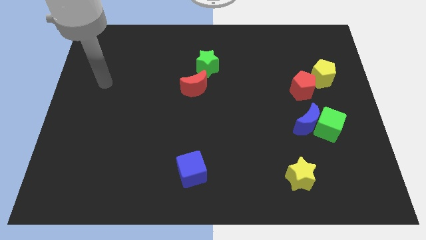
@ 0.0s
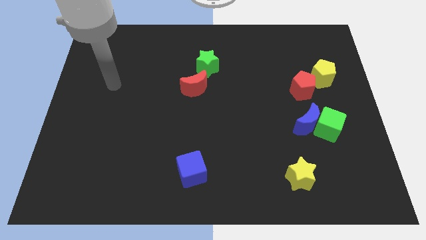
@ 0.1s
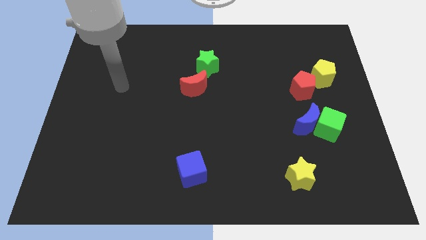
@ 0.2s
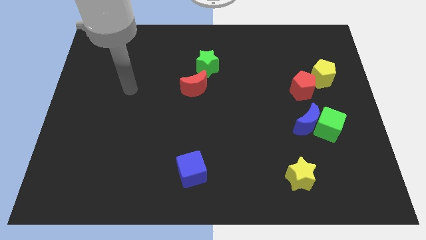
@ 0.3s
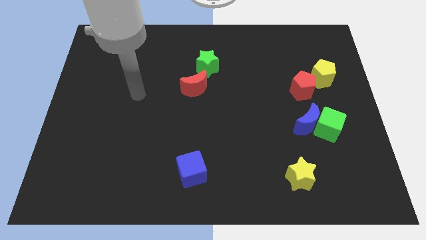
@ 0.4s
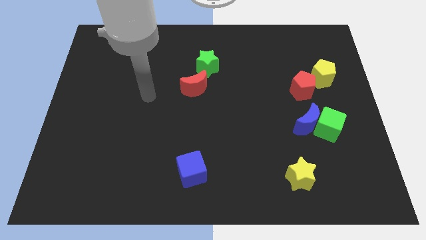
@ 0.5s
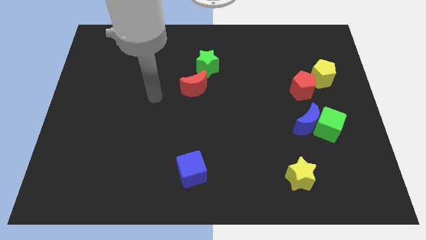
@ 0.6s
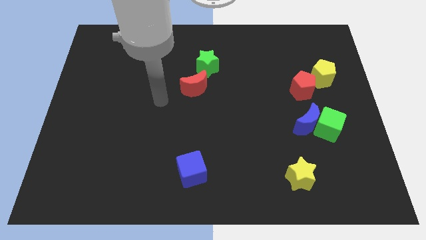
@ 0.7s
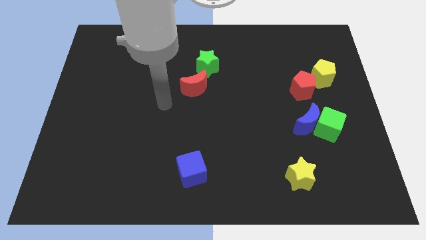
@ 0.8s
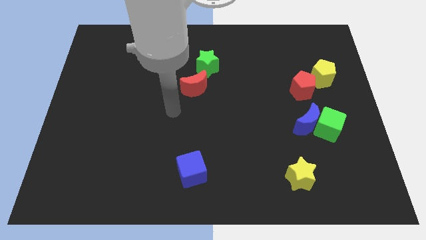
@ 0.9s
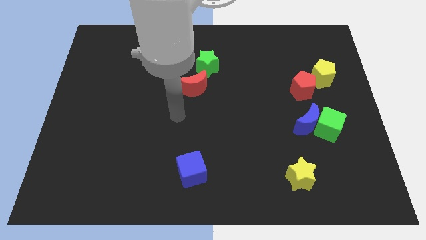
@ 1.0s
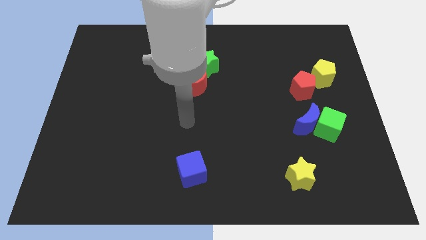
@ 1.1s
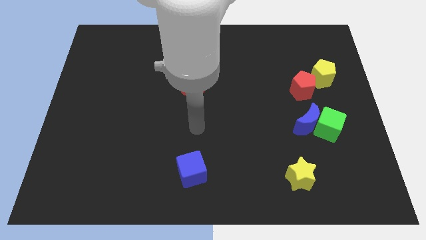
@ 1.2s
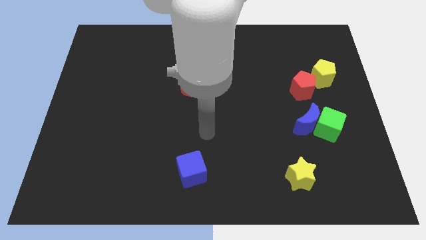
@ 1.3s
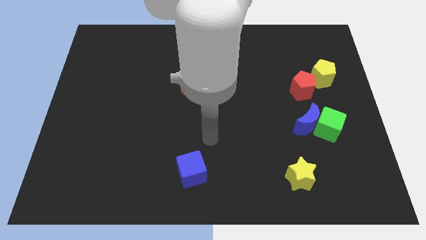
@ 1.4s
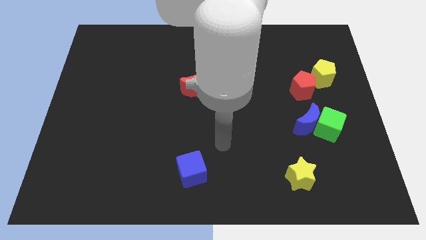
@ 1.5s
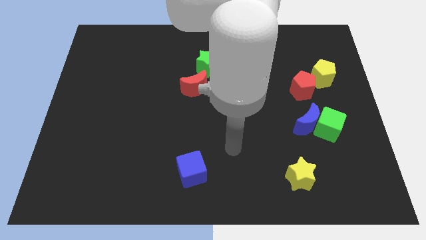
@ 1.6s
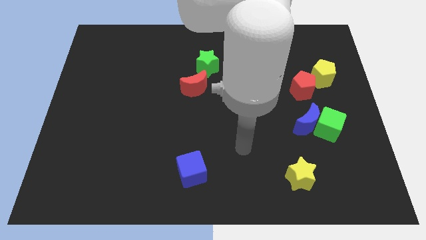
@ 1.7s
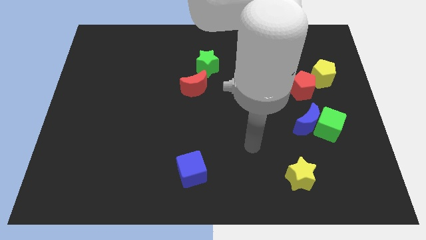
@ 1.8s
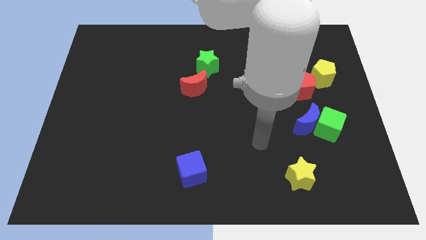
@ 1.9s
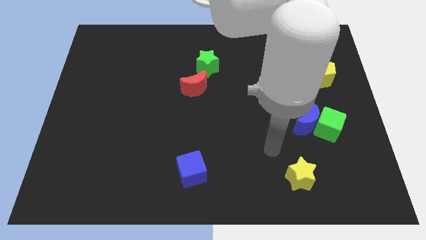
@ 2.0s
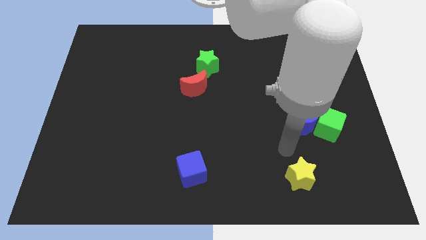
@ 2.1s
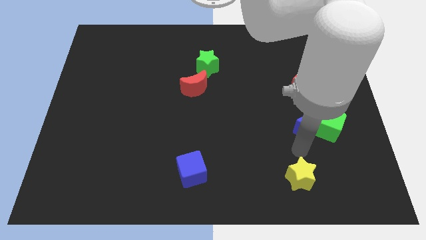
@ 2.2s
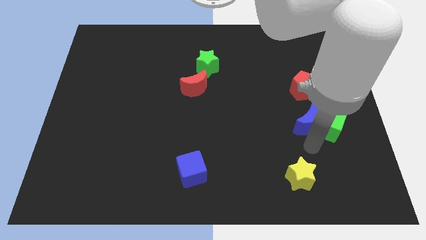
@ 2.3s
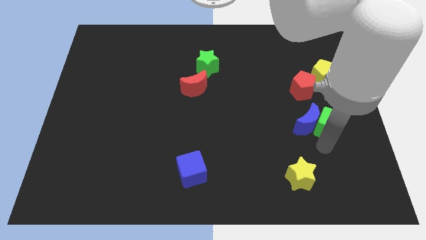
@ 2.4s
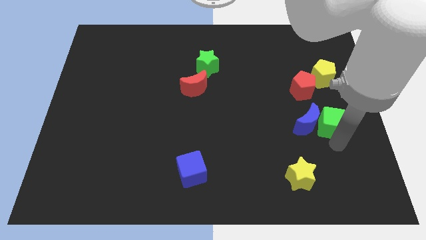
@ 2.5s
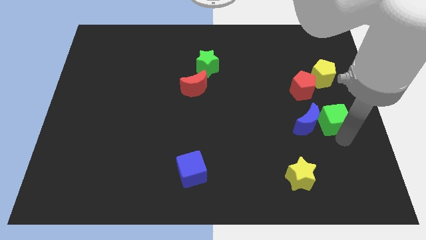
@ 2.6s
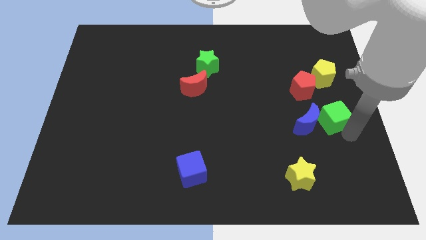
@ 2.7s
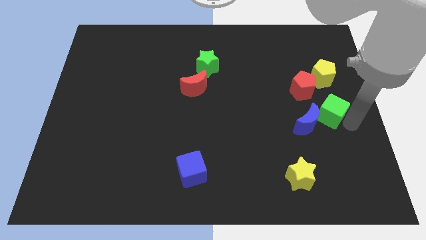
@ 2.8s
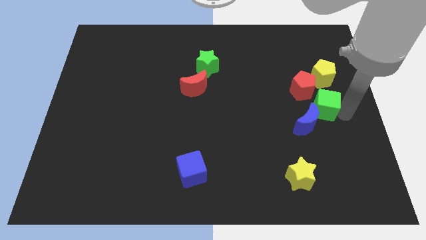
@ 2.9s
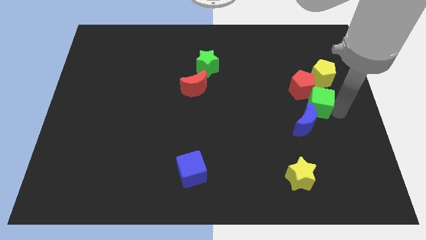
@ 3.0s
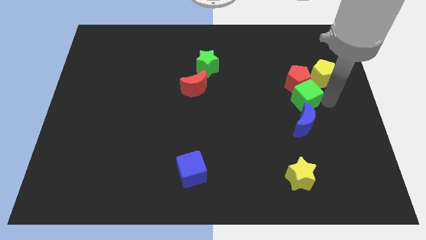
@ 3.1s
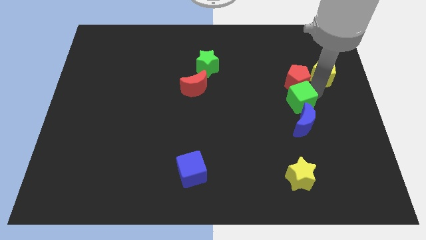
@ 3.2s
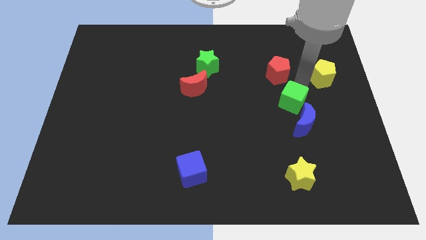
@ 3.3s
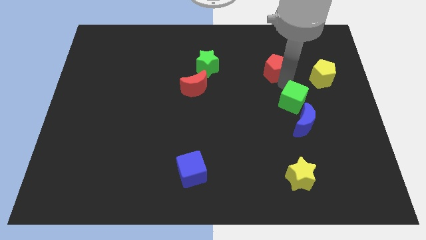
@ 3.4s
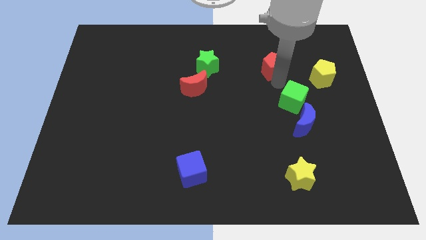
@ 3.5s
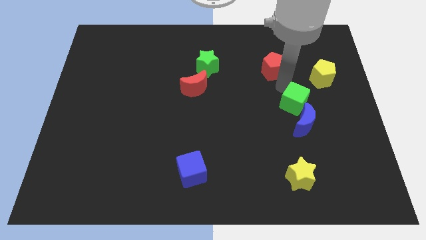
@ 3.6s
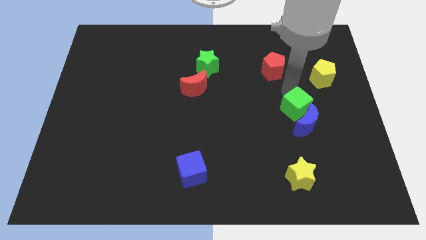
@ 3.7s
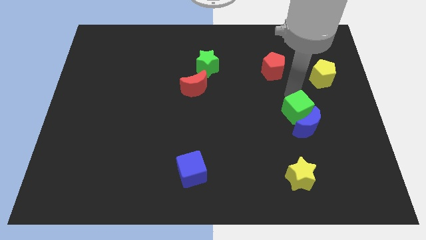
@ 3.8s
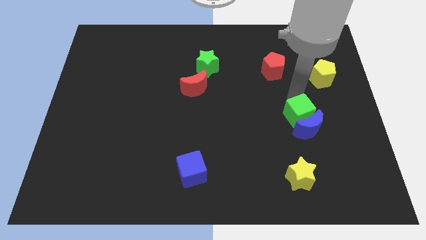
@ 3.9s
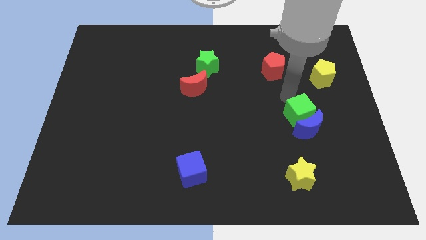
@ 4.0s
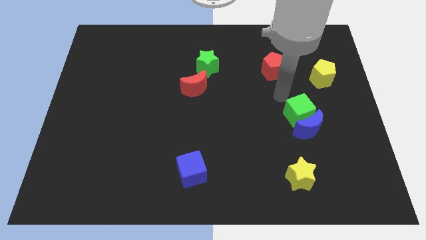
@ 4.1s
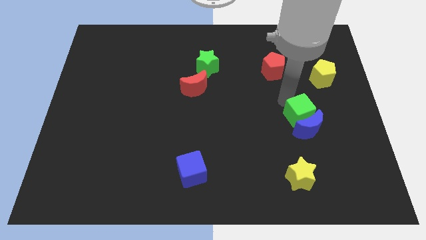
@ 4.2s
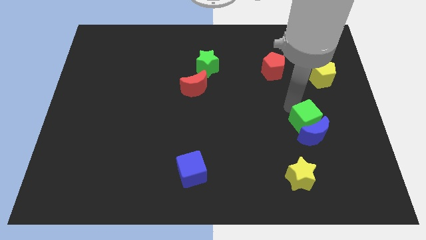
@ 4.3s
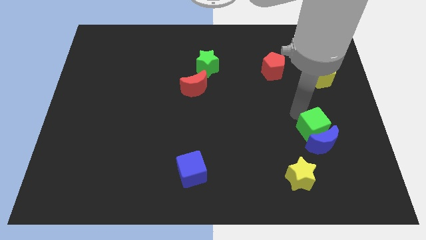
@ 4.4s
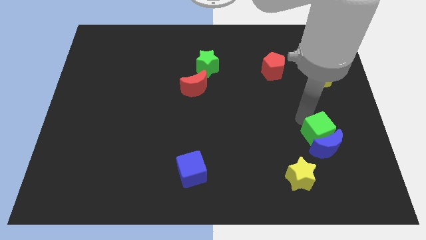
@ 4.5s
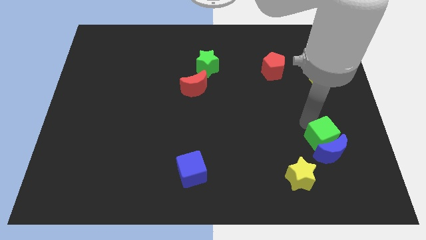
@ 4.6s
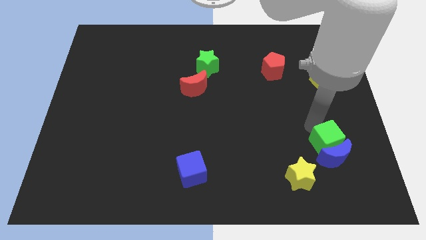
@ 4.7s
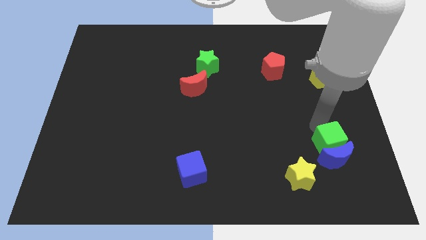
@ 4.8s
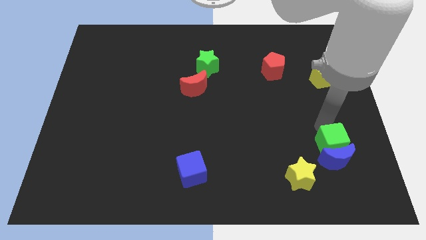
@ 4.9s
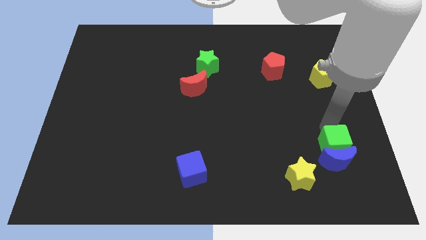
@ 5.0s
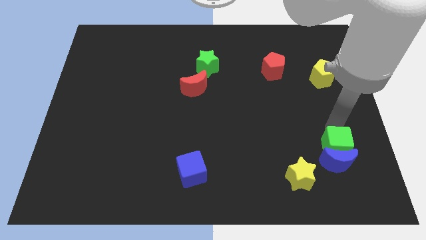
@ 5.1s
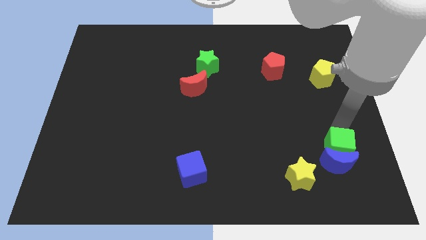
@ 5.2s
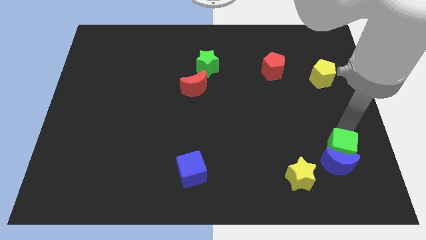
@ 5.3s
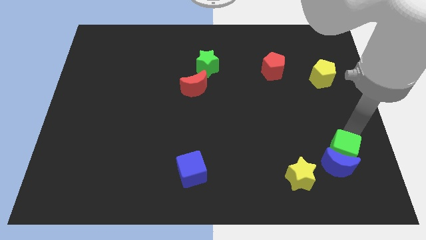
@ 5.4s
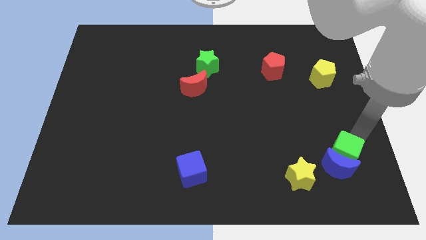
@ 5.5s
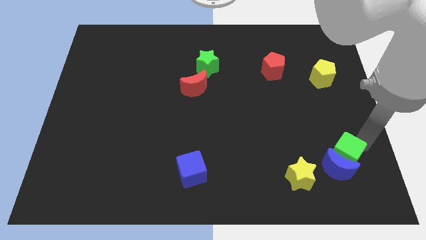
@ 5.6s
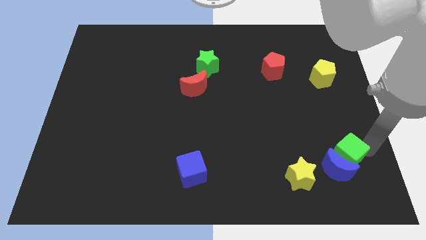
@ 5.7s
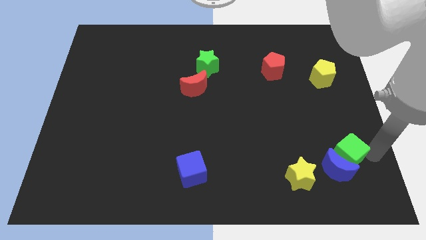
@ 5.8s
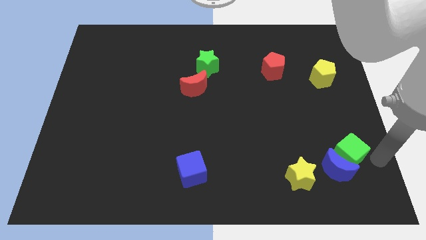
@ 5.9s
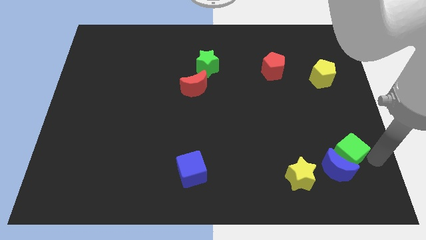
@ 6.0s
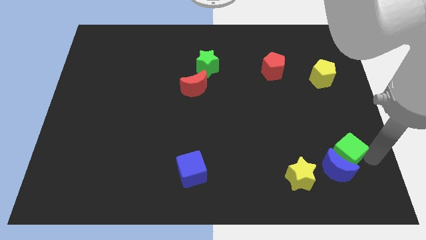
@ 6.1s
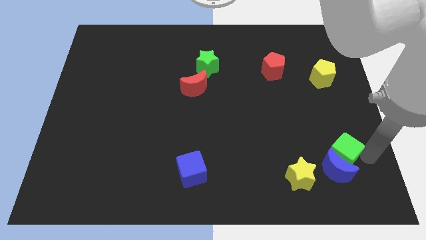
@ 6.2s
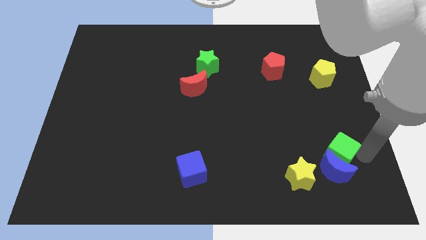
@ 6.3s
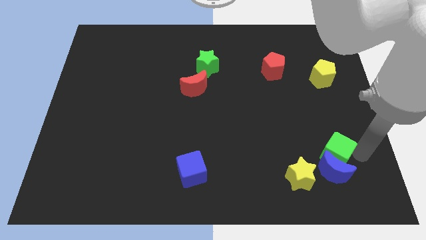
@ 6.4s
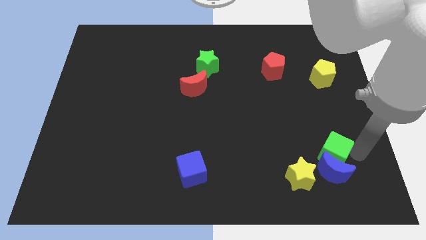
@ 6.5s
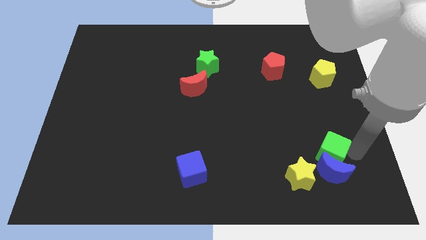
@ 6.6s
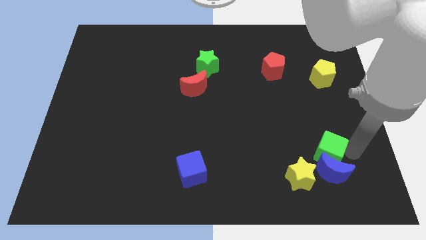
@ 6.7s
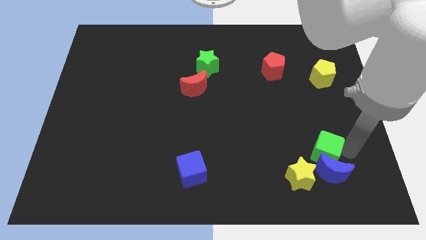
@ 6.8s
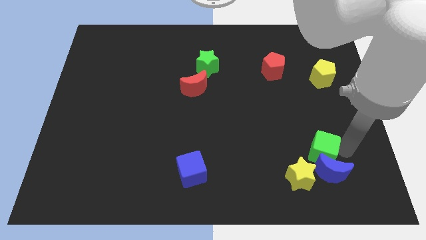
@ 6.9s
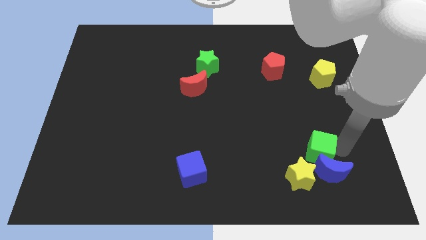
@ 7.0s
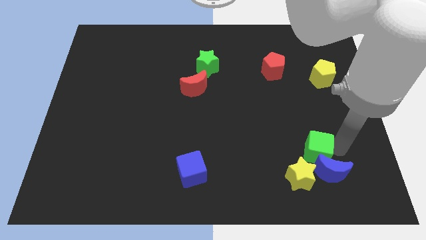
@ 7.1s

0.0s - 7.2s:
slightly move the green cube diagonally downwards and to the left

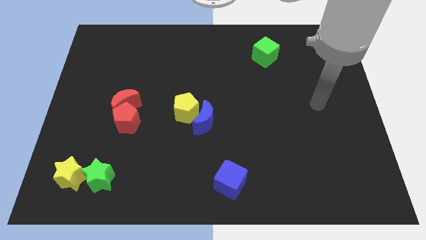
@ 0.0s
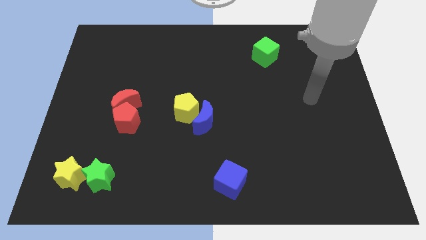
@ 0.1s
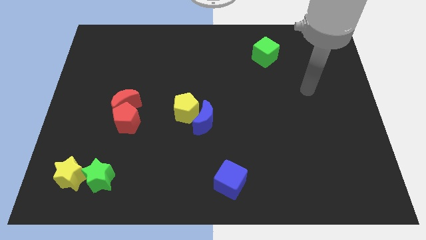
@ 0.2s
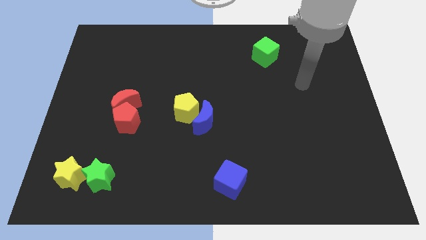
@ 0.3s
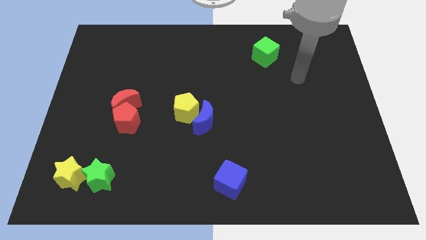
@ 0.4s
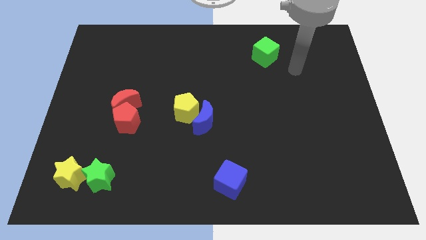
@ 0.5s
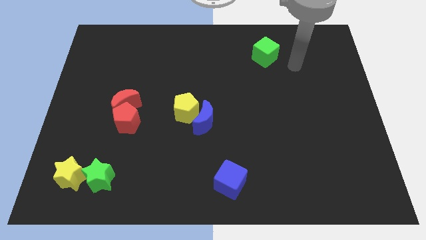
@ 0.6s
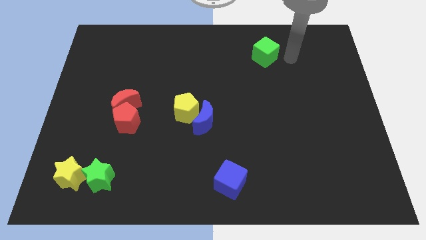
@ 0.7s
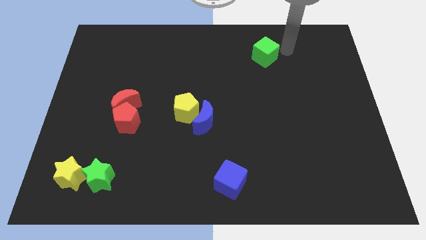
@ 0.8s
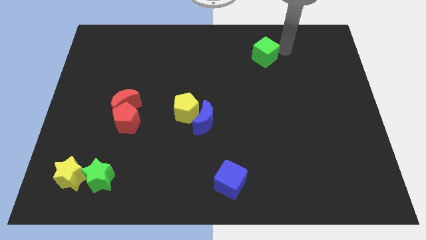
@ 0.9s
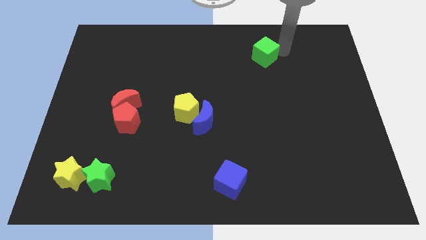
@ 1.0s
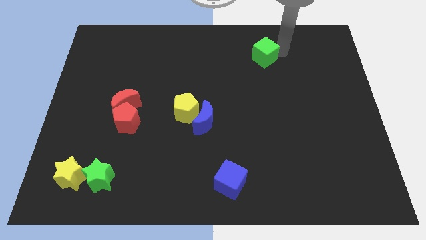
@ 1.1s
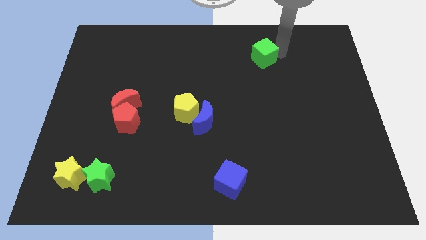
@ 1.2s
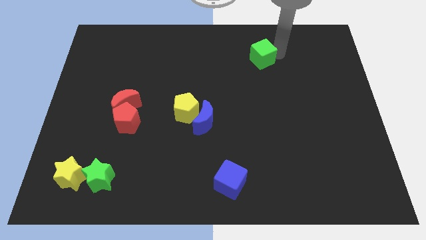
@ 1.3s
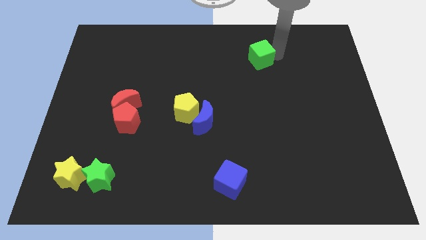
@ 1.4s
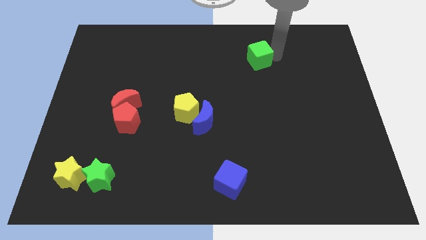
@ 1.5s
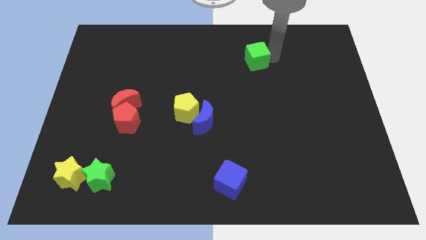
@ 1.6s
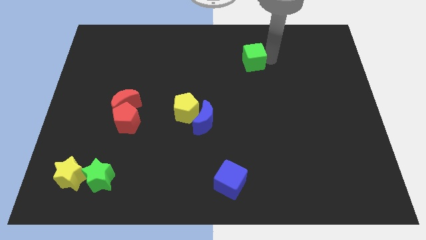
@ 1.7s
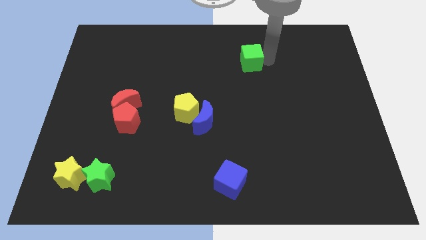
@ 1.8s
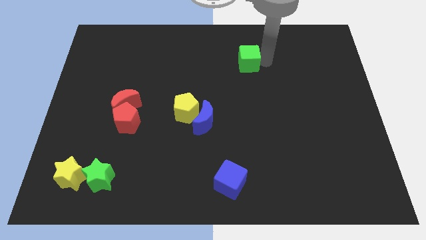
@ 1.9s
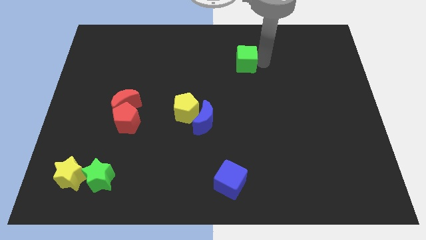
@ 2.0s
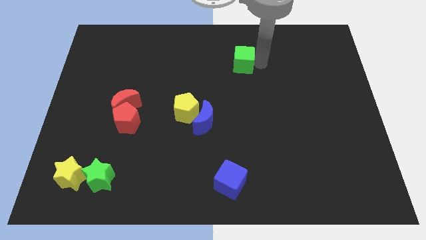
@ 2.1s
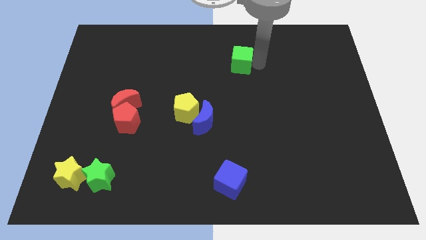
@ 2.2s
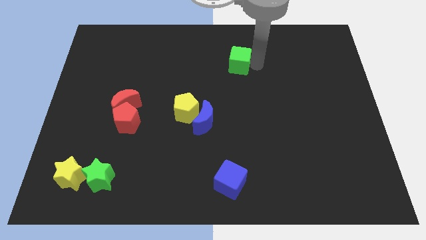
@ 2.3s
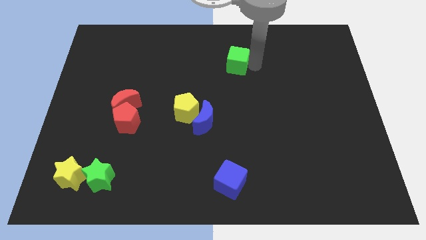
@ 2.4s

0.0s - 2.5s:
push the green cube a bit to the left
